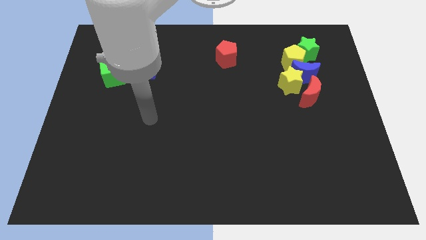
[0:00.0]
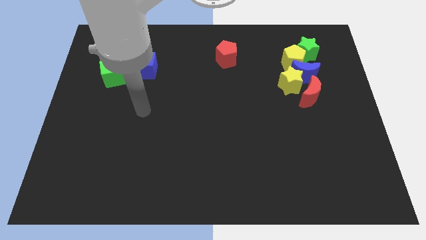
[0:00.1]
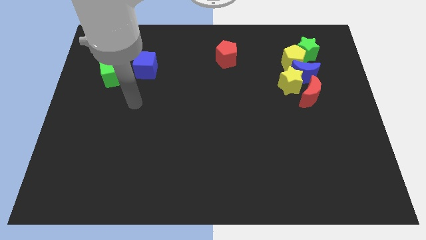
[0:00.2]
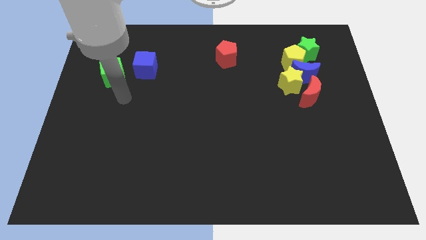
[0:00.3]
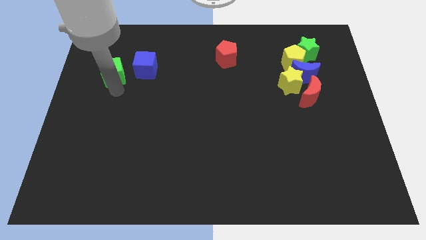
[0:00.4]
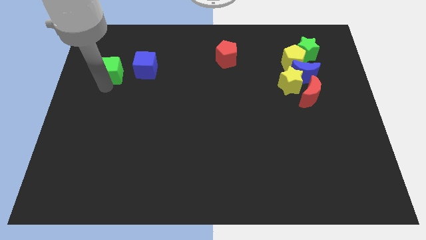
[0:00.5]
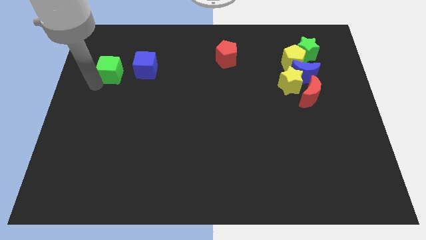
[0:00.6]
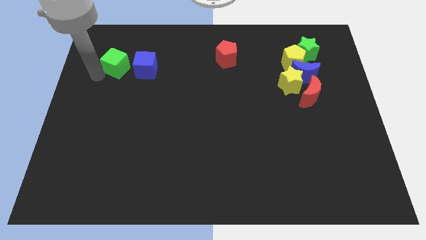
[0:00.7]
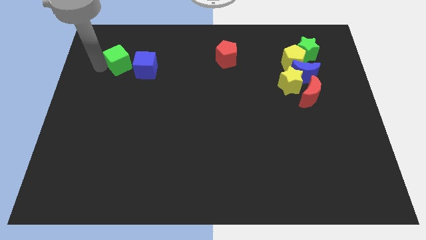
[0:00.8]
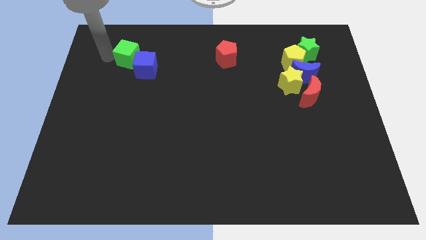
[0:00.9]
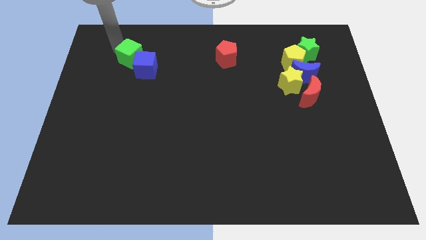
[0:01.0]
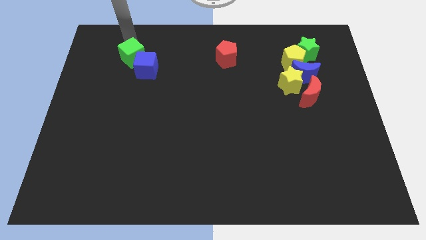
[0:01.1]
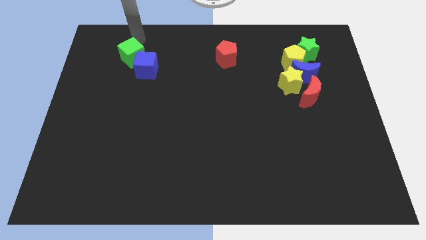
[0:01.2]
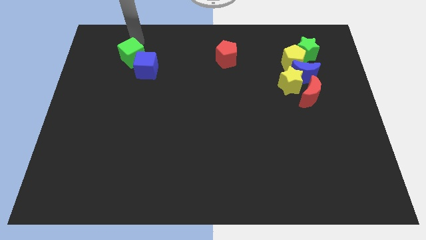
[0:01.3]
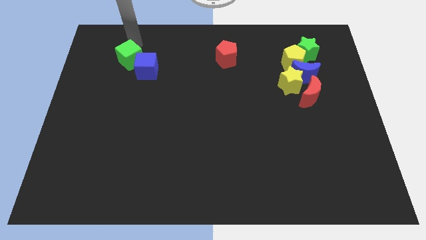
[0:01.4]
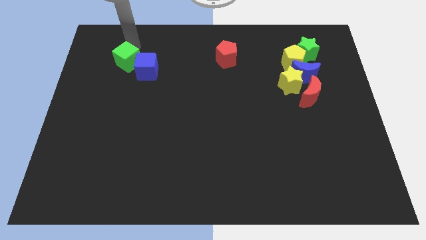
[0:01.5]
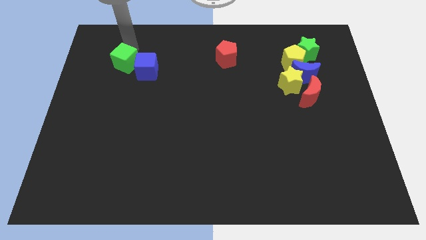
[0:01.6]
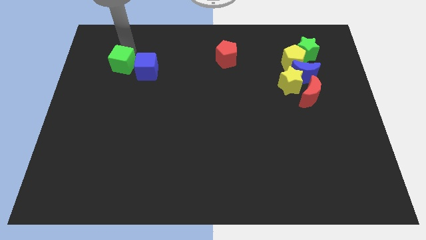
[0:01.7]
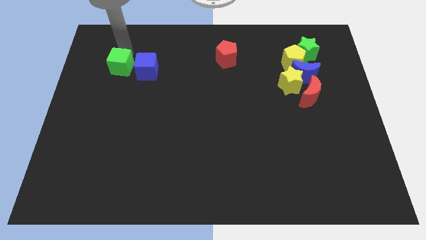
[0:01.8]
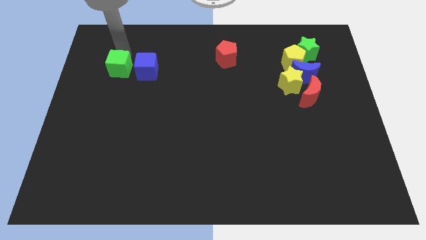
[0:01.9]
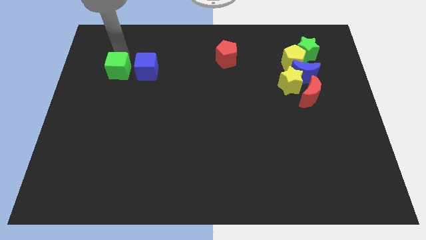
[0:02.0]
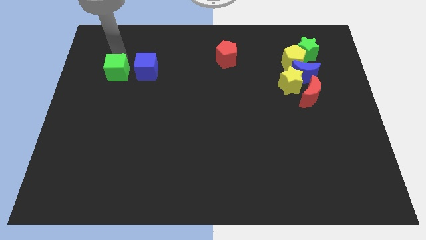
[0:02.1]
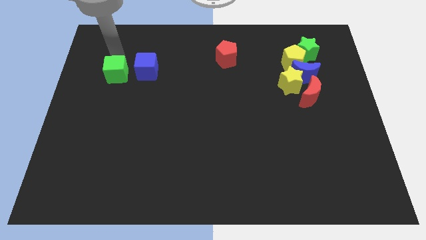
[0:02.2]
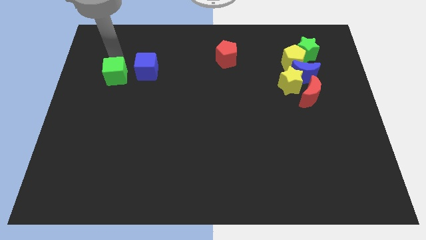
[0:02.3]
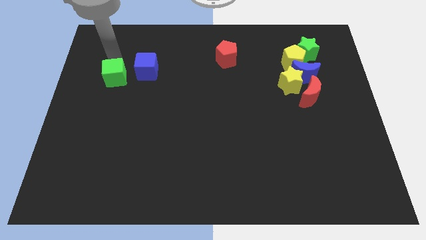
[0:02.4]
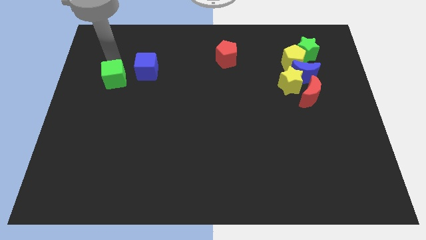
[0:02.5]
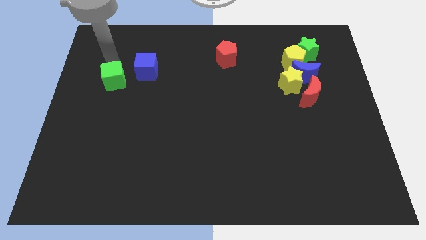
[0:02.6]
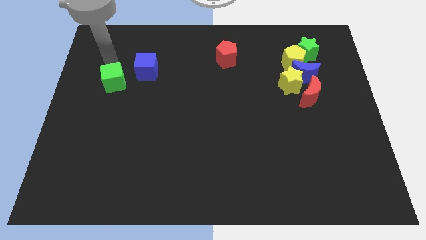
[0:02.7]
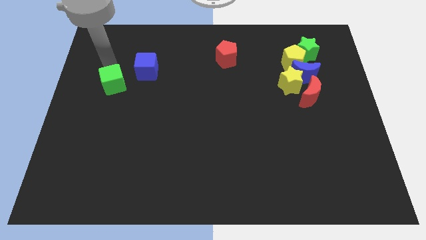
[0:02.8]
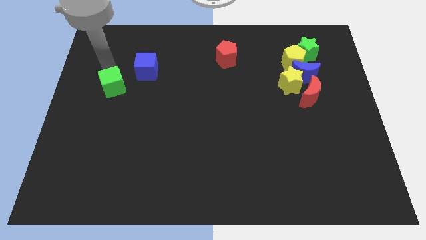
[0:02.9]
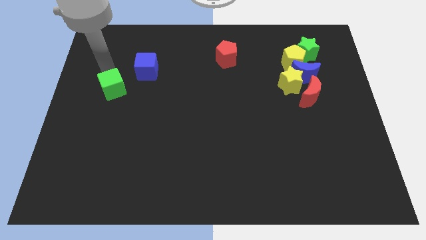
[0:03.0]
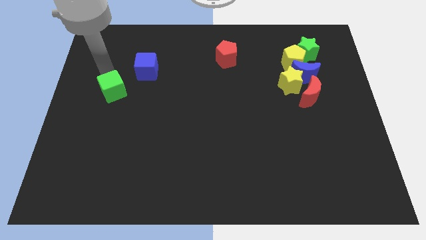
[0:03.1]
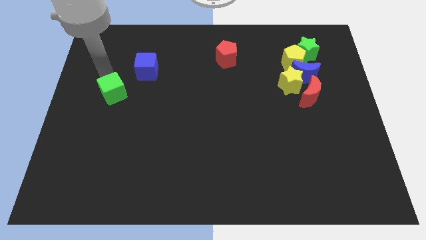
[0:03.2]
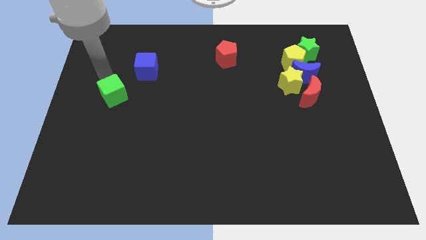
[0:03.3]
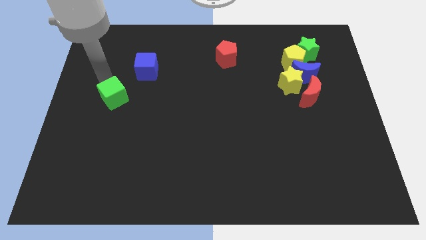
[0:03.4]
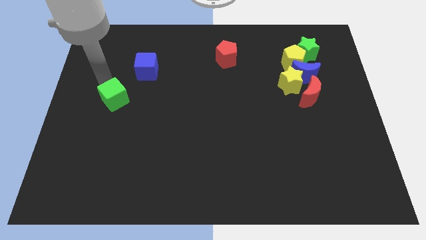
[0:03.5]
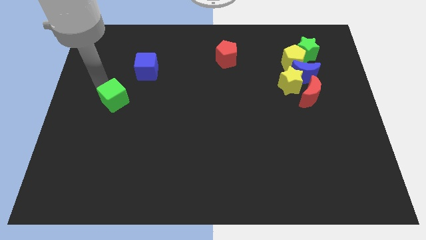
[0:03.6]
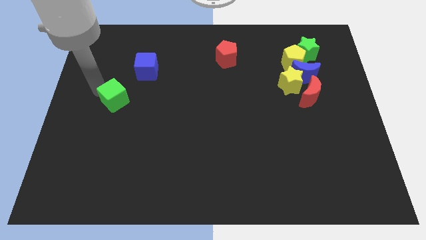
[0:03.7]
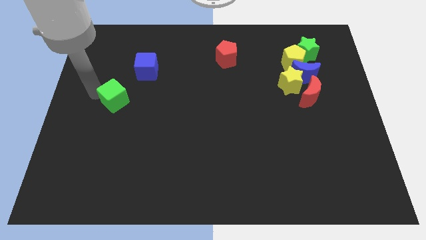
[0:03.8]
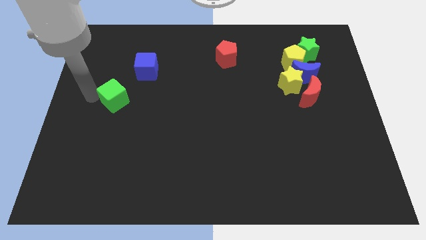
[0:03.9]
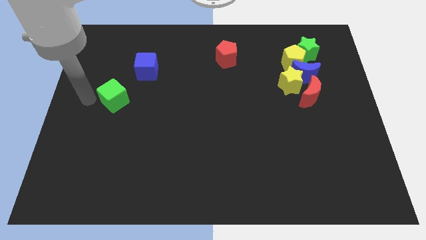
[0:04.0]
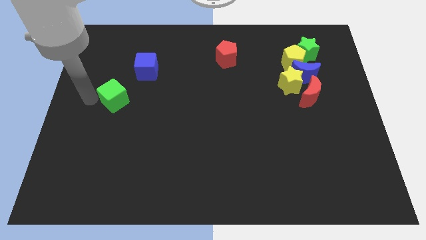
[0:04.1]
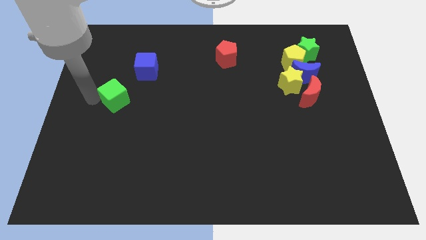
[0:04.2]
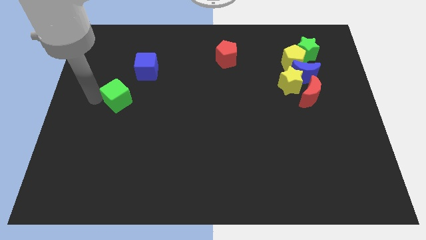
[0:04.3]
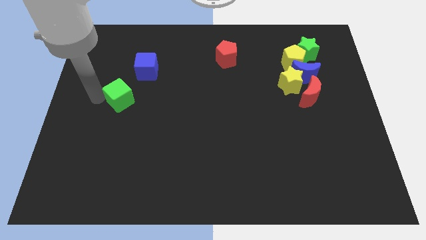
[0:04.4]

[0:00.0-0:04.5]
slightly push the green cube down and right

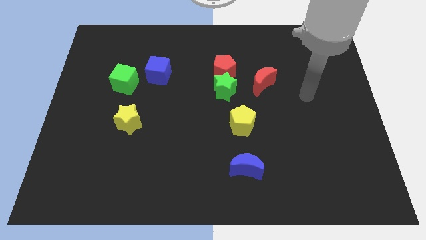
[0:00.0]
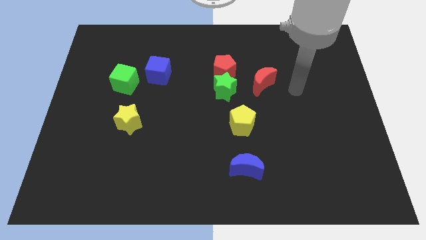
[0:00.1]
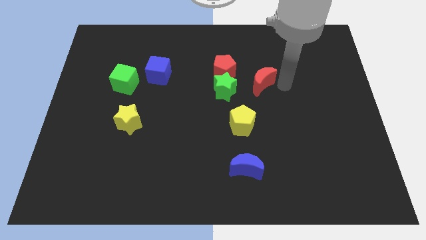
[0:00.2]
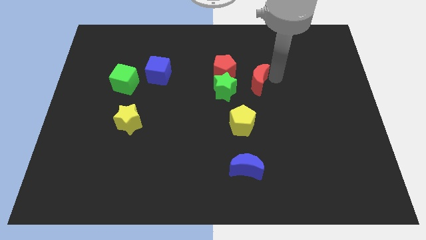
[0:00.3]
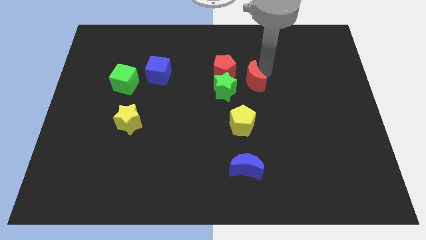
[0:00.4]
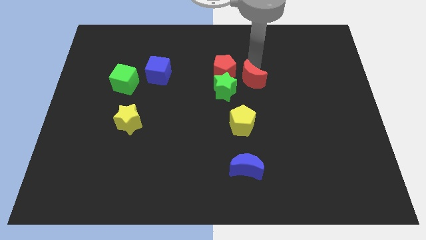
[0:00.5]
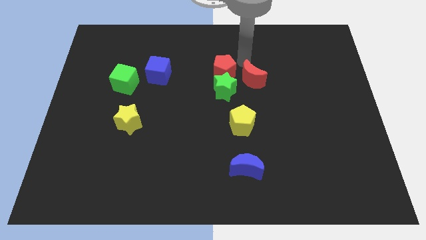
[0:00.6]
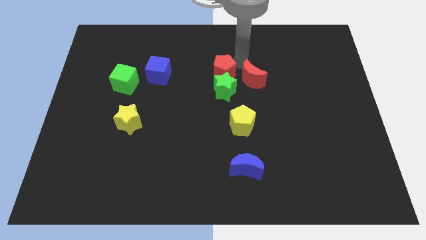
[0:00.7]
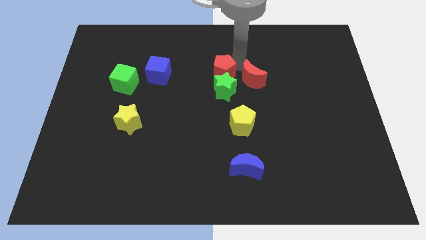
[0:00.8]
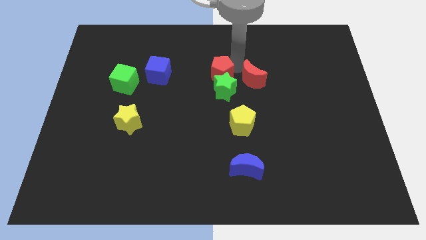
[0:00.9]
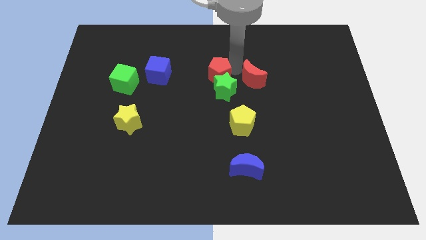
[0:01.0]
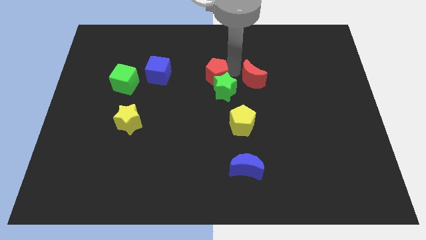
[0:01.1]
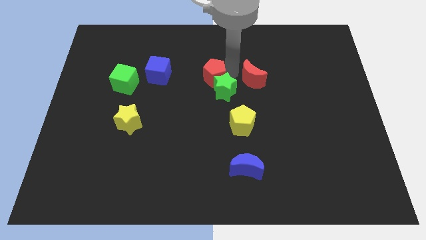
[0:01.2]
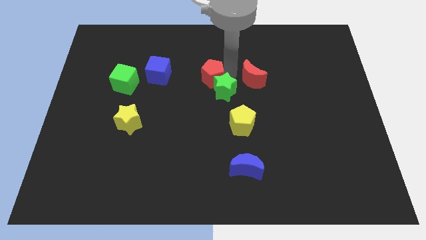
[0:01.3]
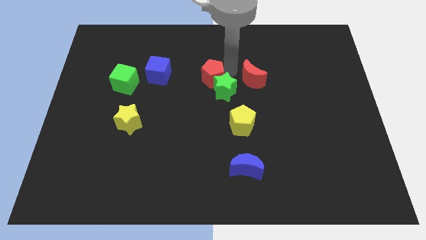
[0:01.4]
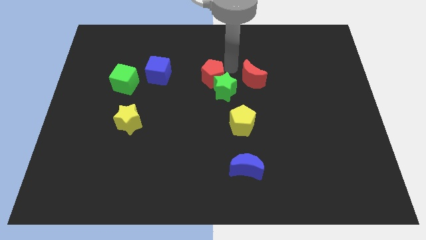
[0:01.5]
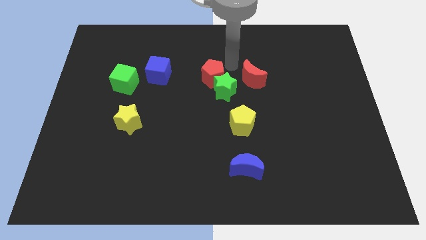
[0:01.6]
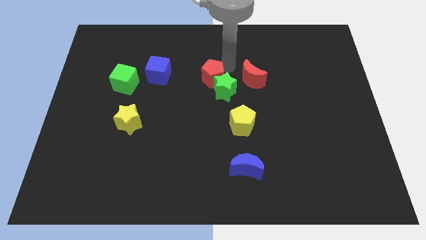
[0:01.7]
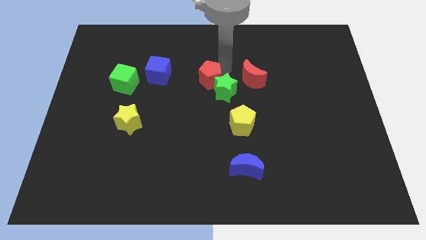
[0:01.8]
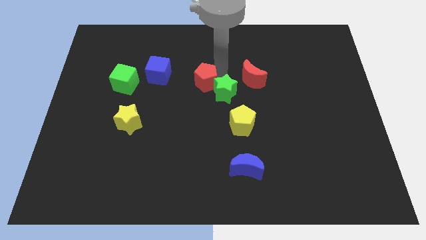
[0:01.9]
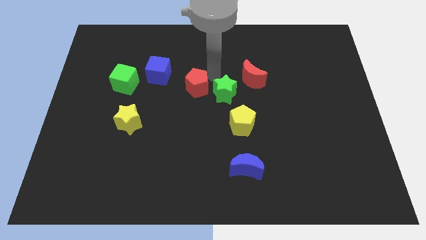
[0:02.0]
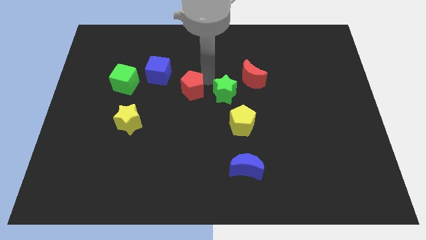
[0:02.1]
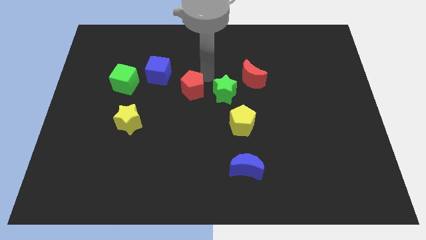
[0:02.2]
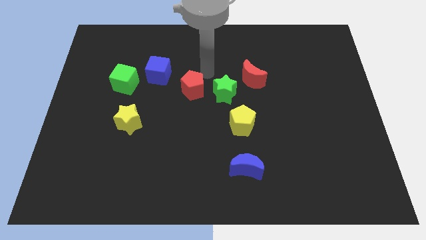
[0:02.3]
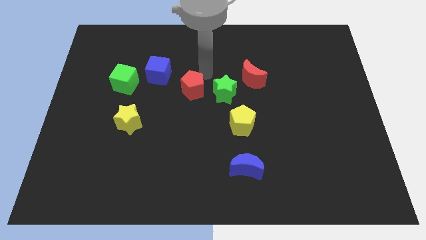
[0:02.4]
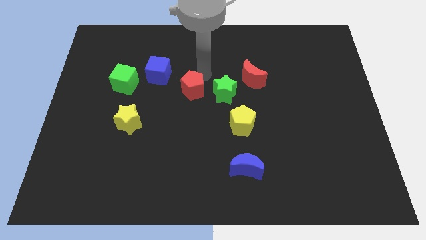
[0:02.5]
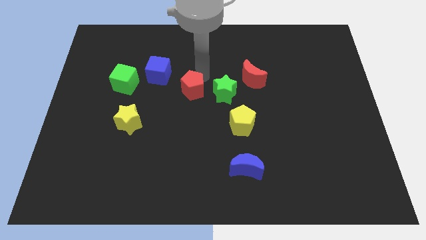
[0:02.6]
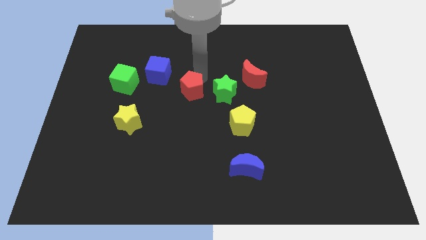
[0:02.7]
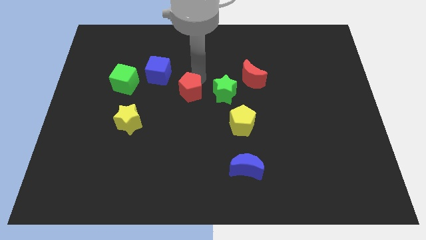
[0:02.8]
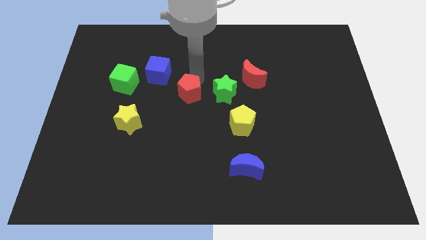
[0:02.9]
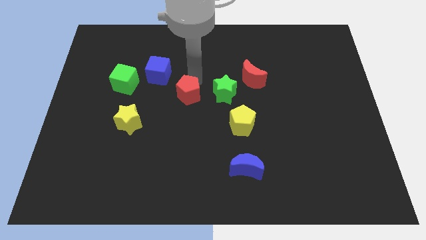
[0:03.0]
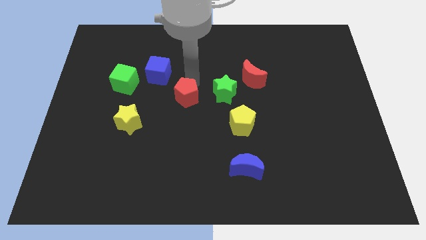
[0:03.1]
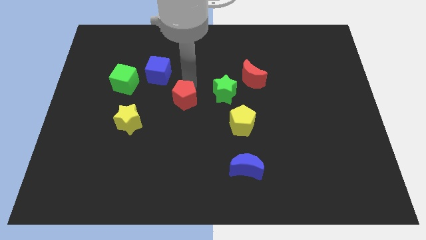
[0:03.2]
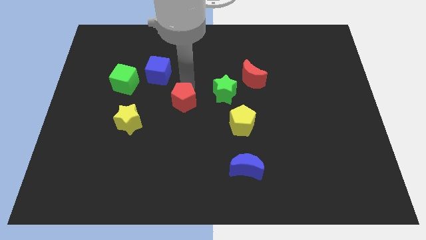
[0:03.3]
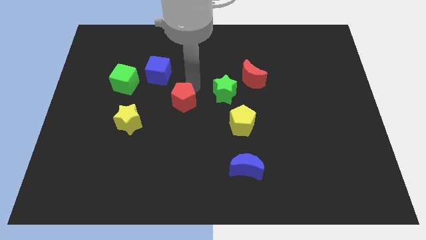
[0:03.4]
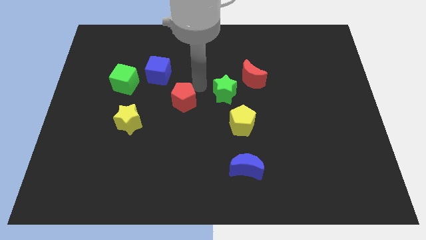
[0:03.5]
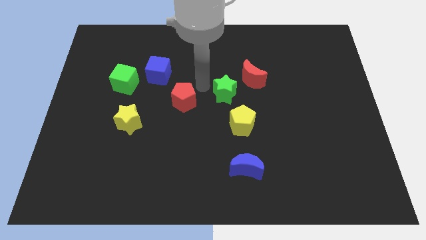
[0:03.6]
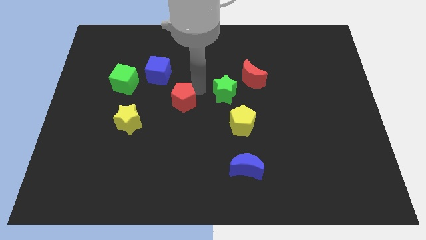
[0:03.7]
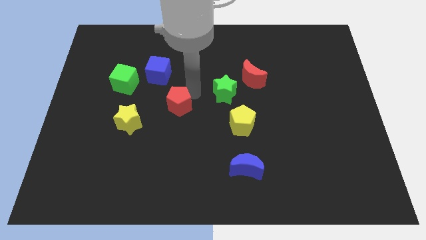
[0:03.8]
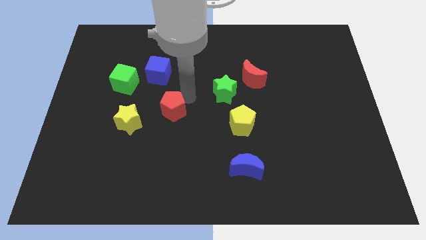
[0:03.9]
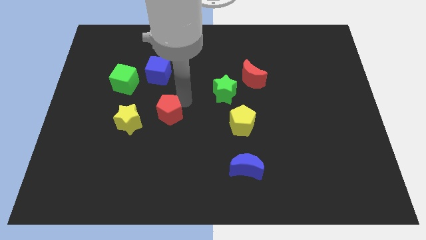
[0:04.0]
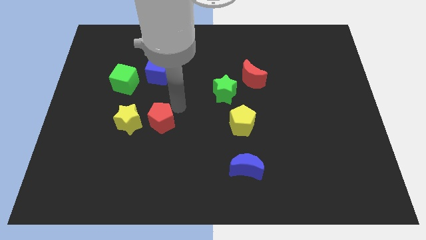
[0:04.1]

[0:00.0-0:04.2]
push the red pentagon downwards and to the left diagonally
